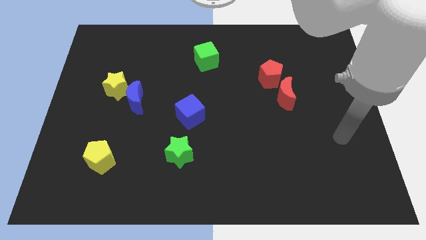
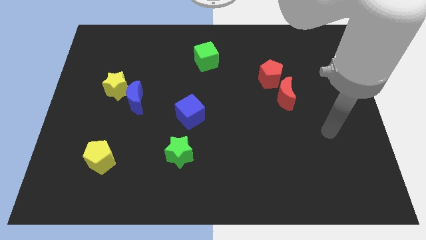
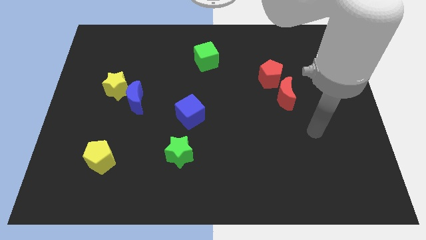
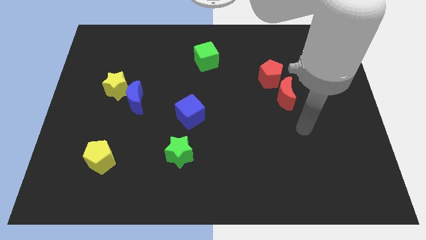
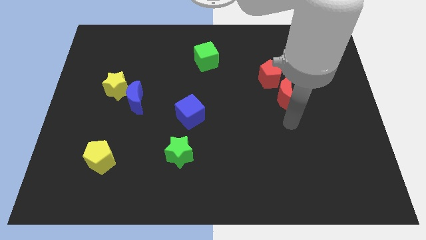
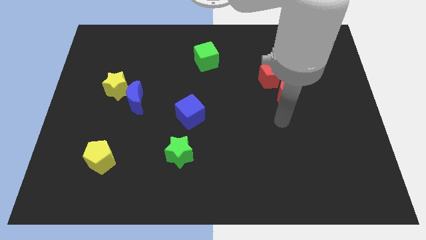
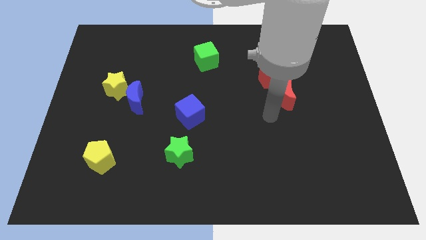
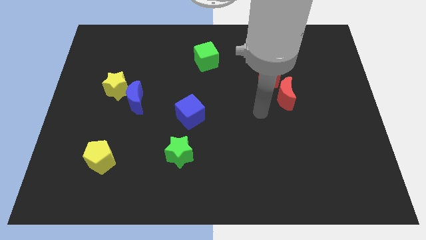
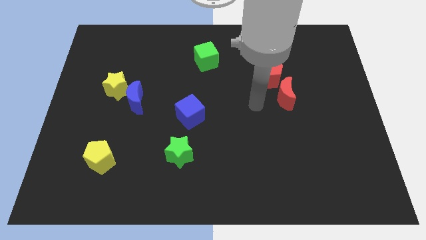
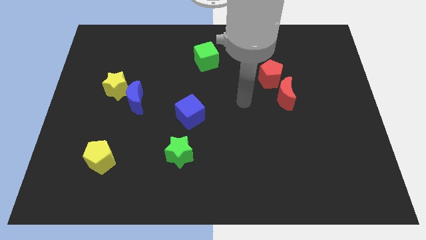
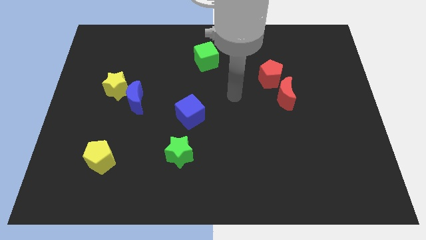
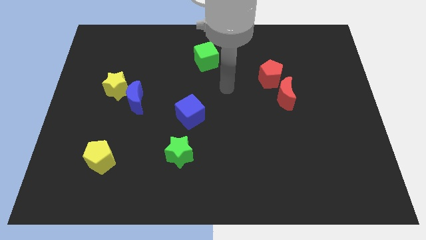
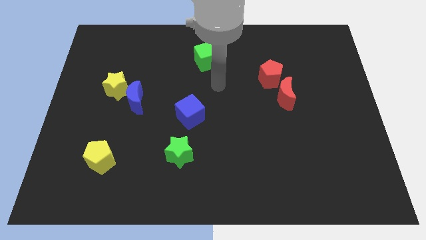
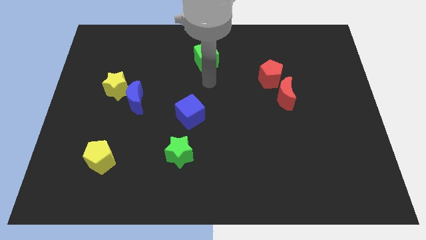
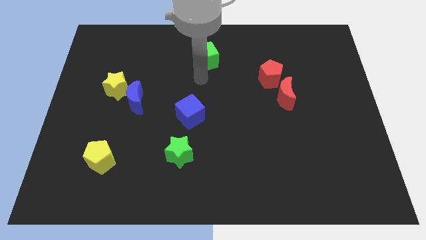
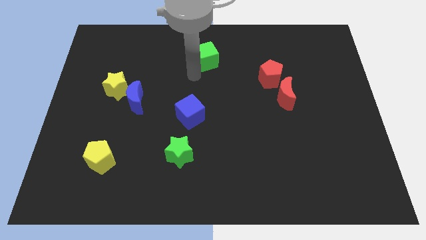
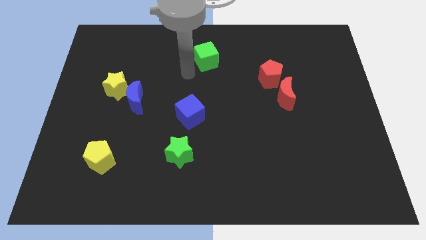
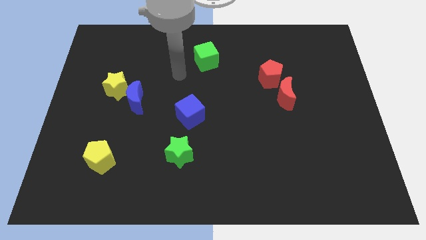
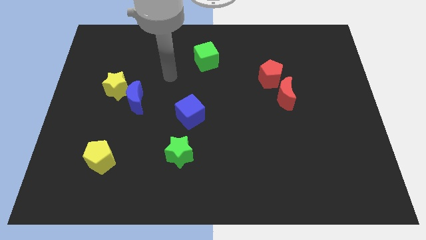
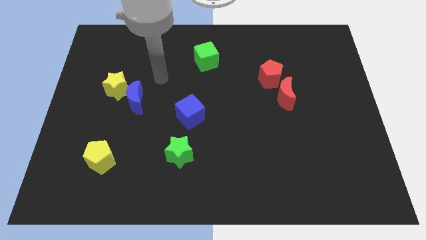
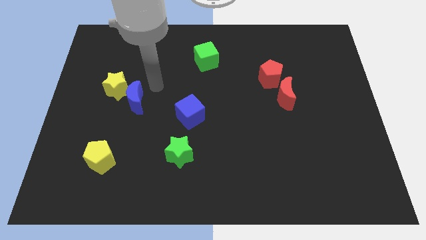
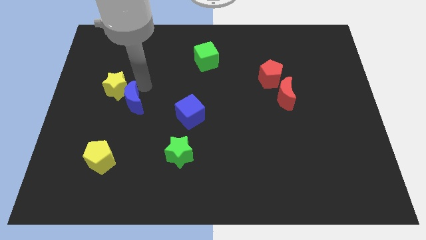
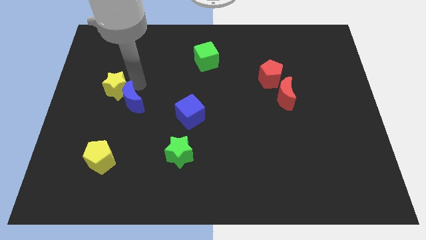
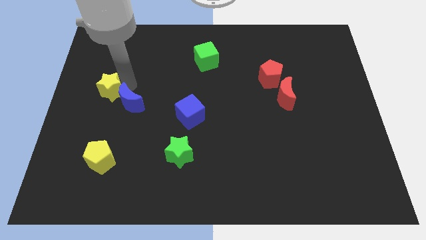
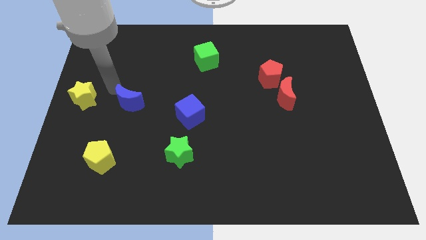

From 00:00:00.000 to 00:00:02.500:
move the blue moon away from the yellow star

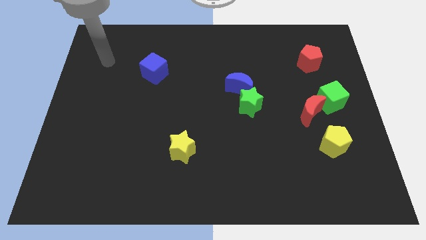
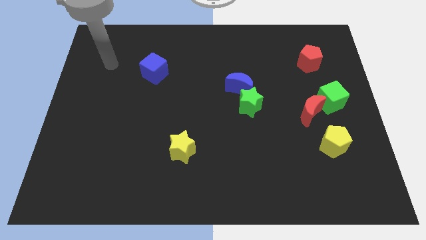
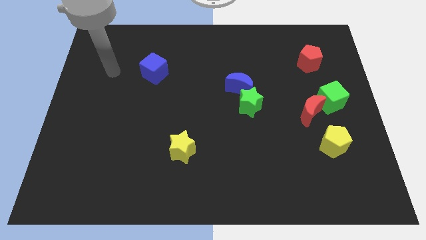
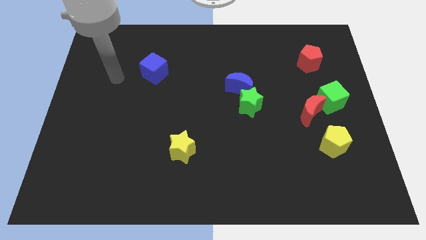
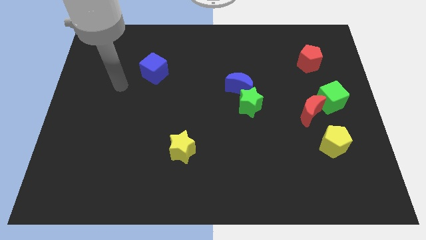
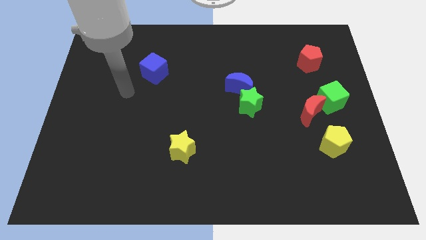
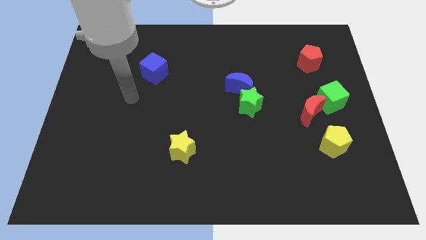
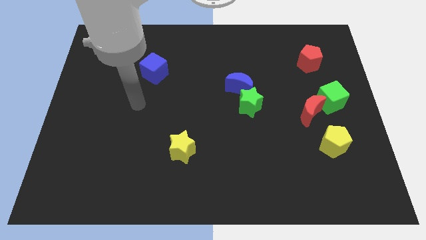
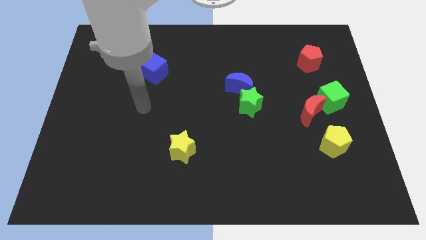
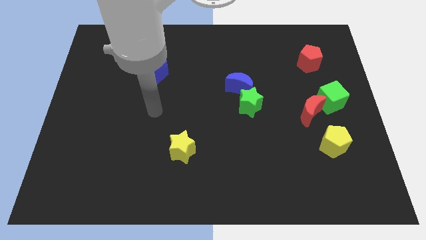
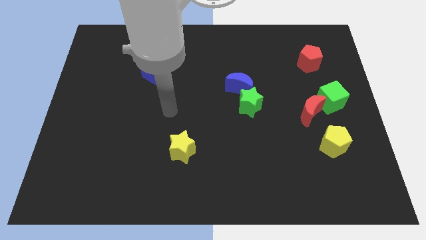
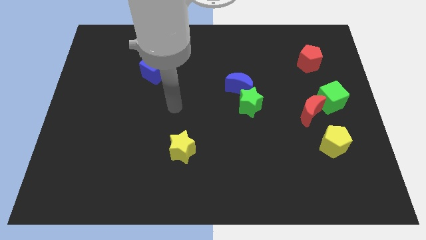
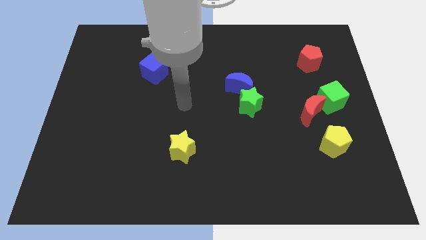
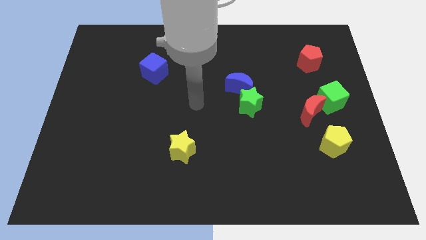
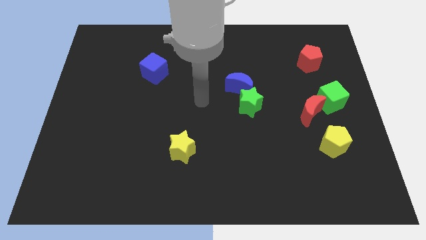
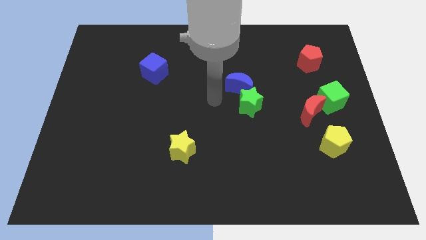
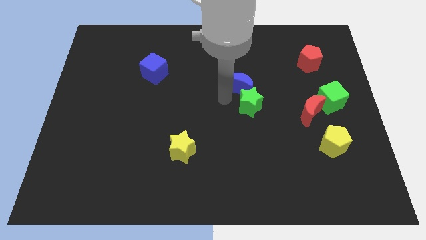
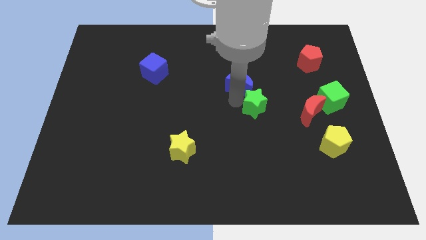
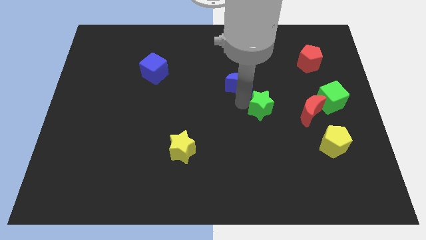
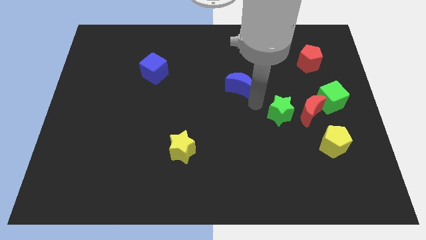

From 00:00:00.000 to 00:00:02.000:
pull the blue moon apart from the green star

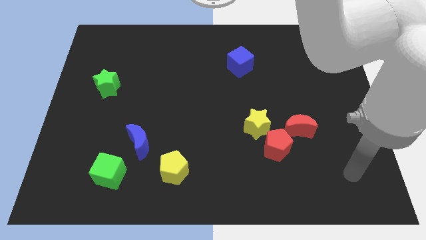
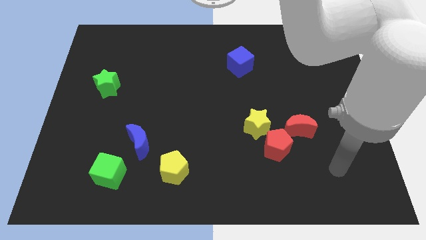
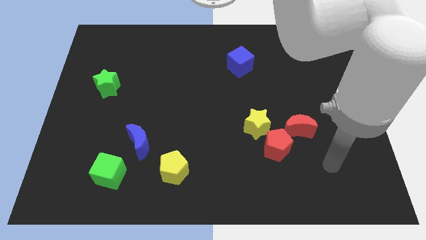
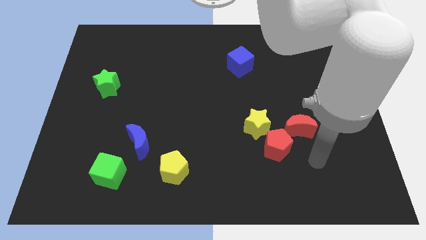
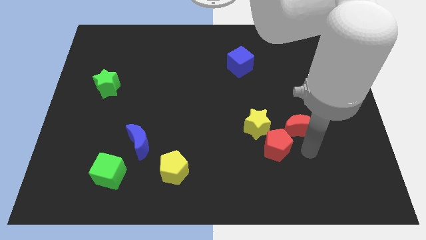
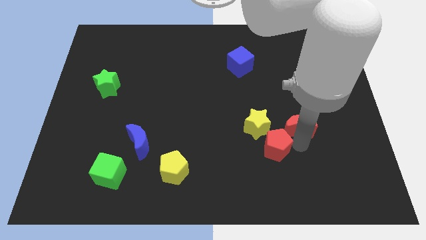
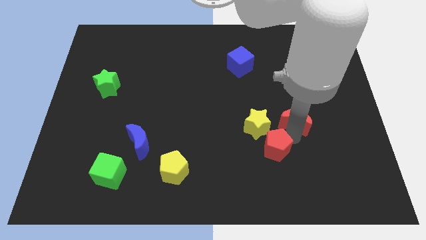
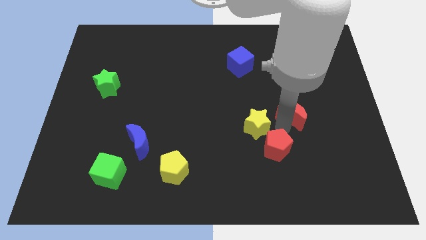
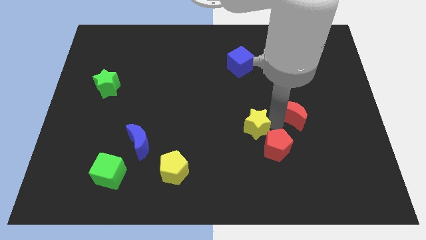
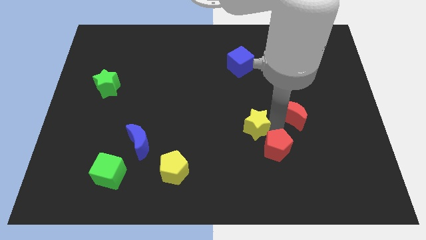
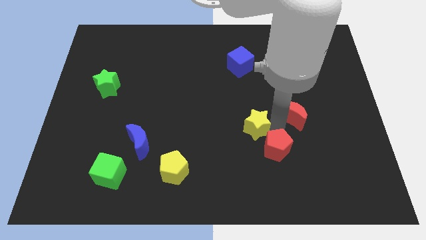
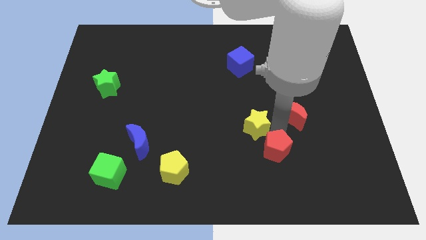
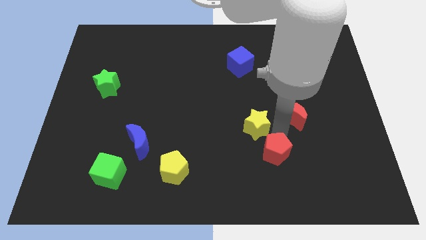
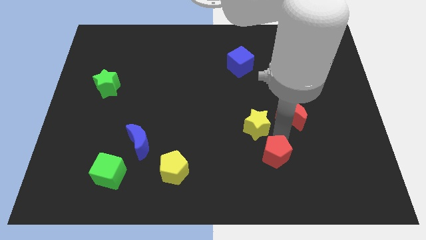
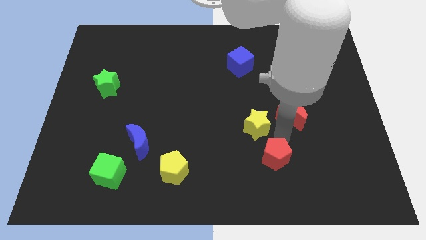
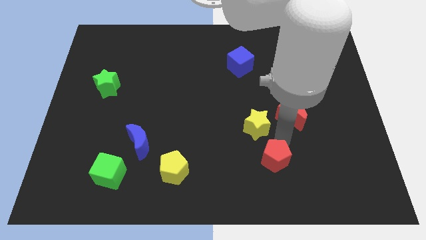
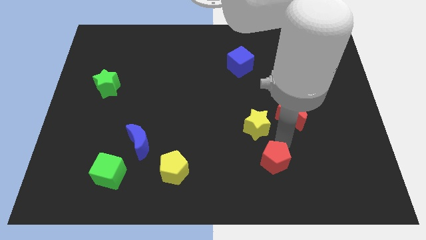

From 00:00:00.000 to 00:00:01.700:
pull the red pentagon apart from the yellow star and red moon

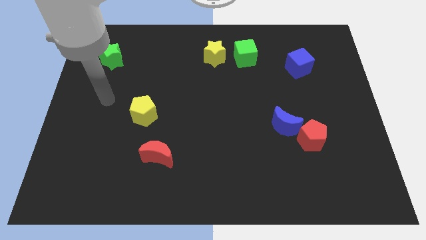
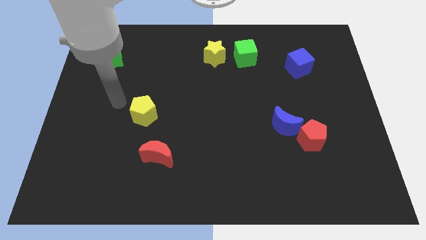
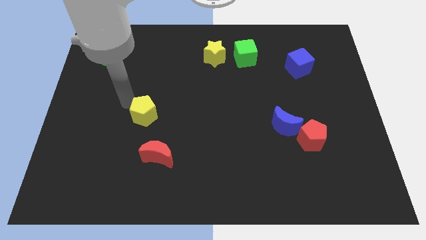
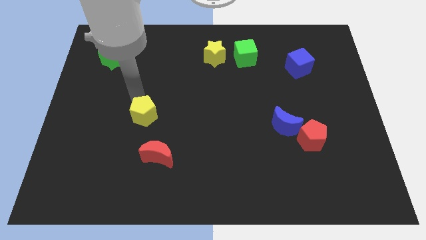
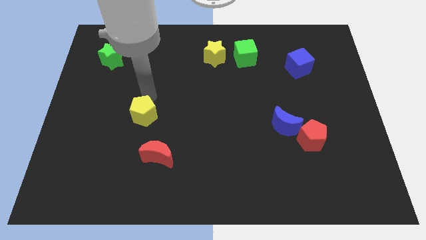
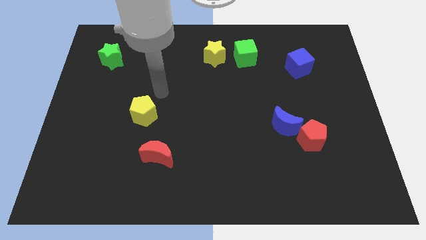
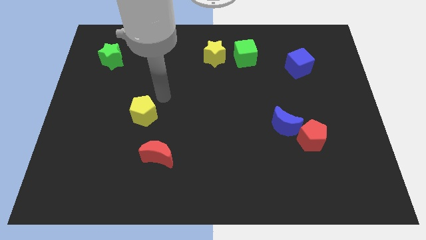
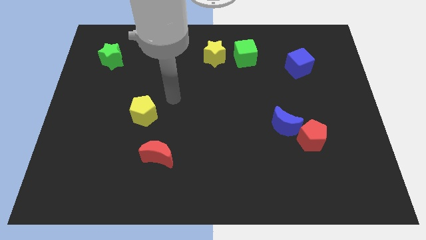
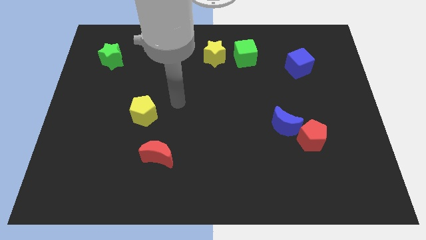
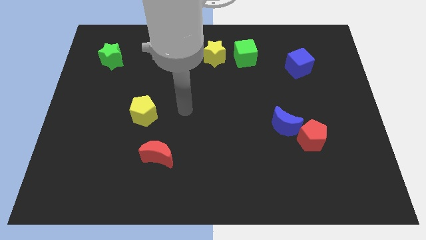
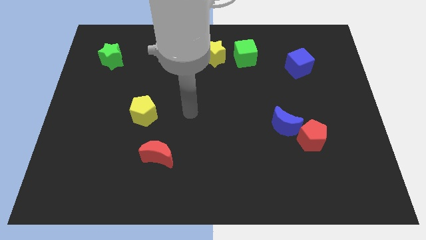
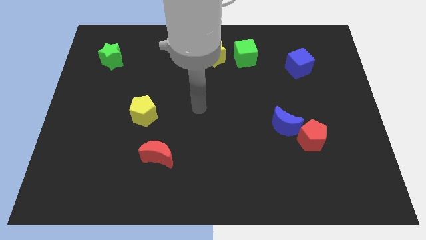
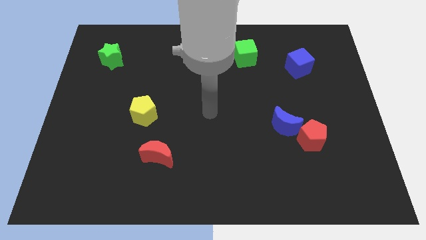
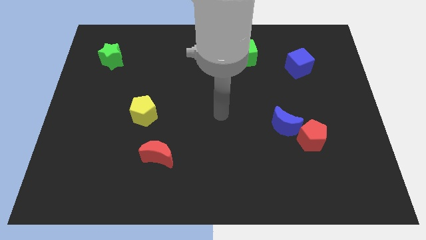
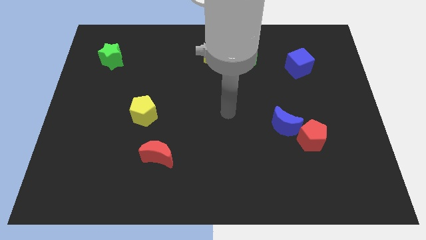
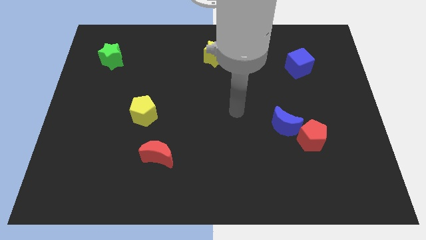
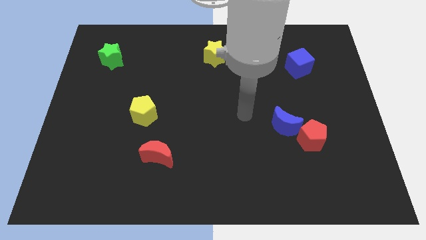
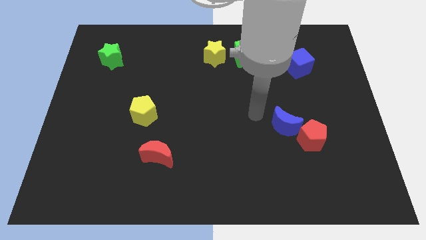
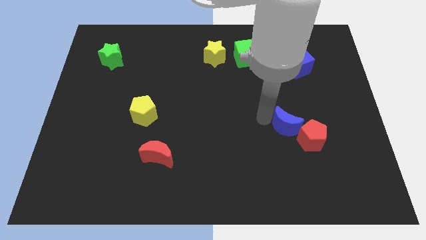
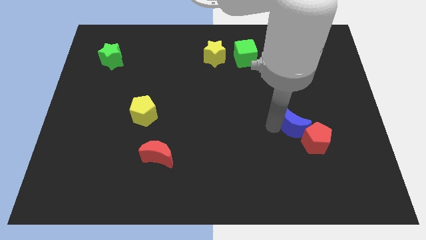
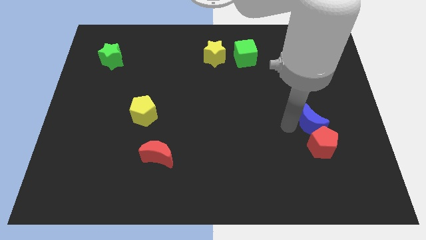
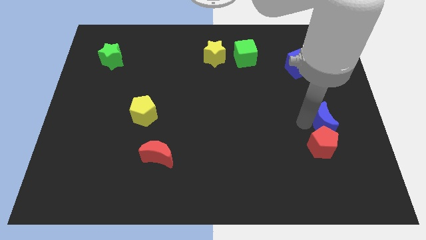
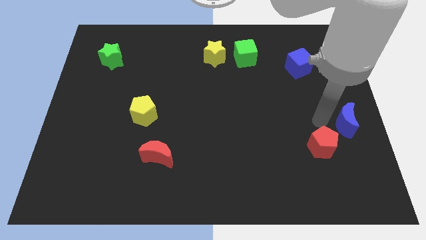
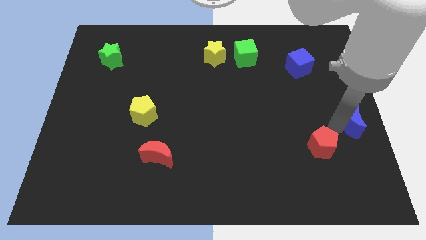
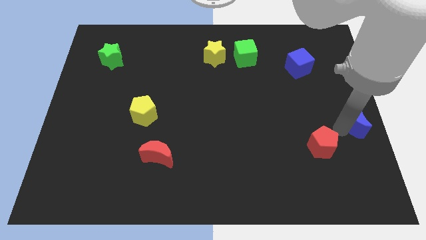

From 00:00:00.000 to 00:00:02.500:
move the red pentagon away from the blue moon

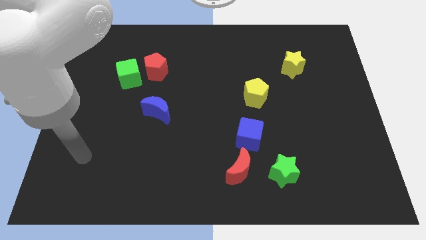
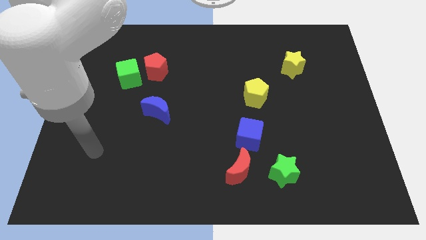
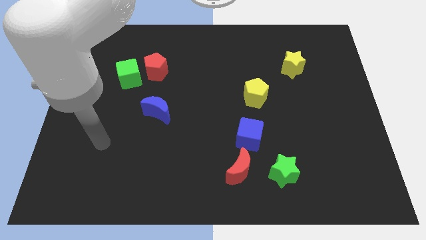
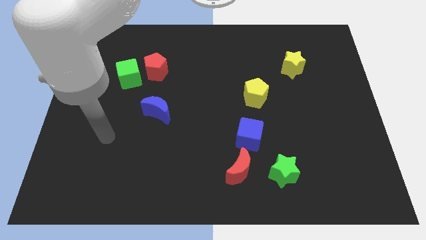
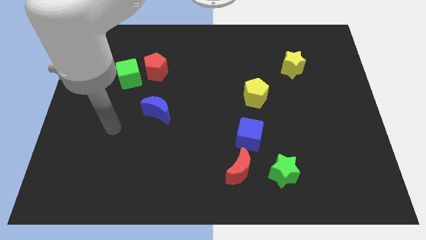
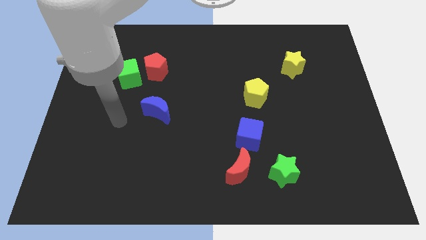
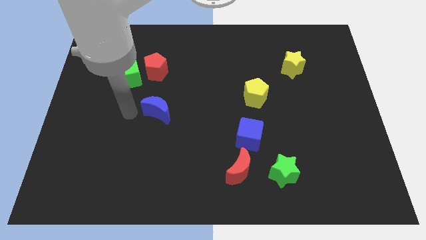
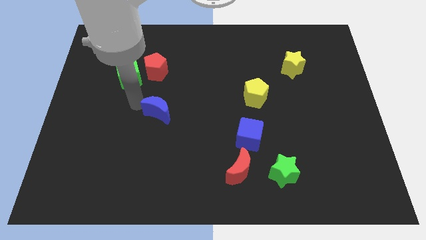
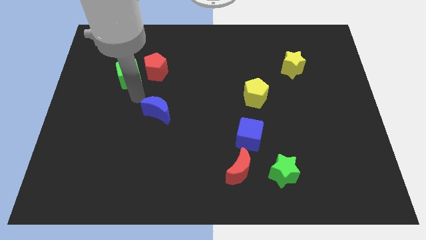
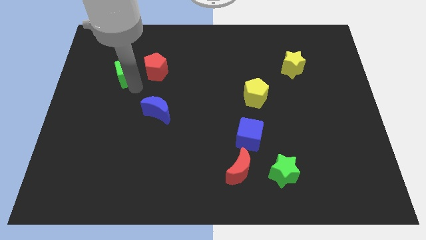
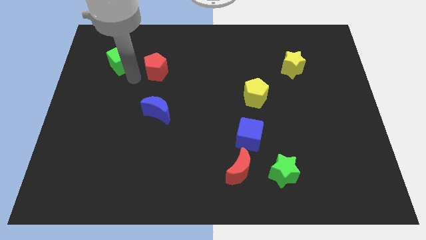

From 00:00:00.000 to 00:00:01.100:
pull the red pentagon apart from the green cube
